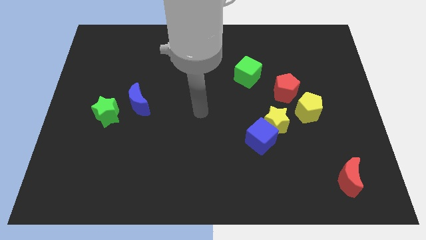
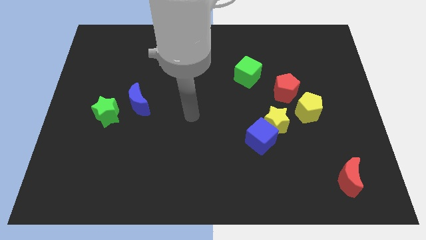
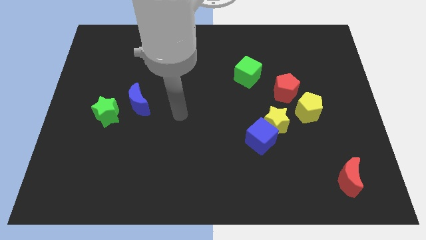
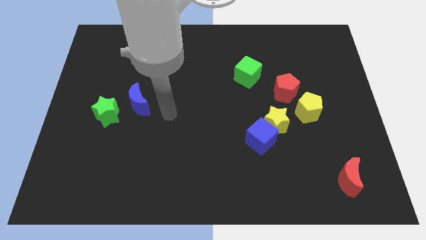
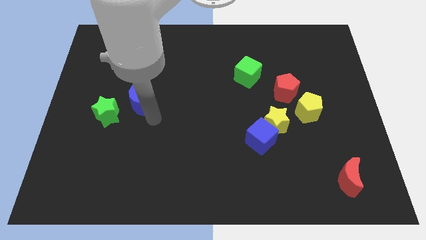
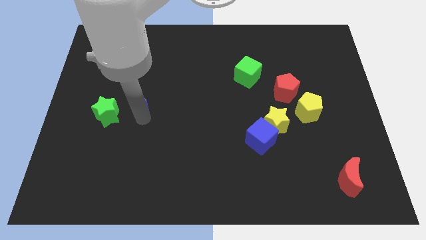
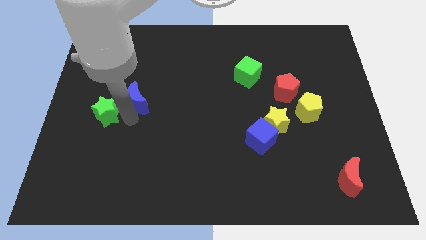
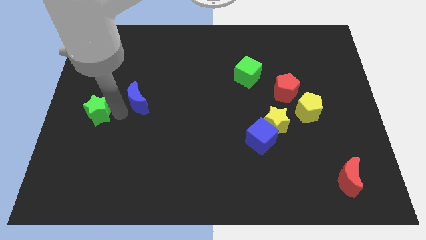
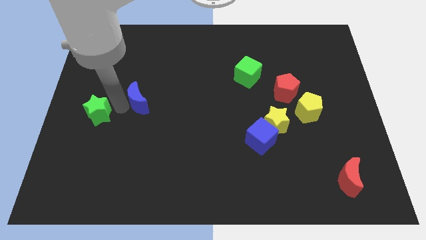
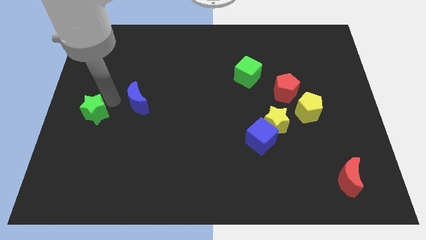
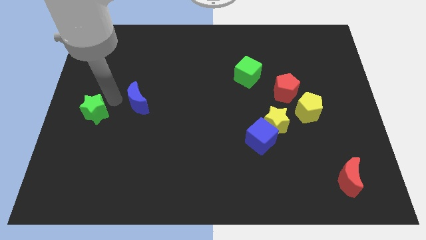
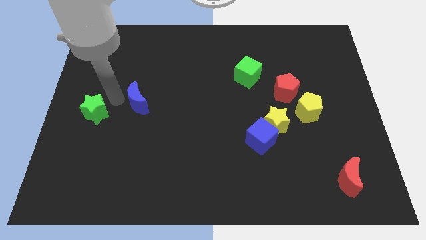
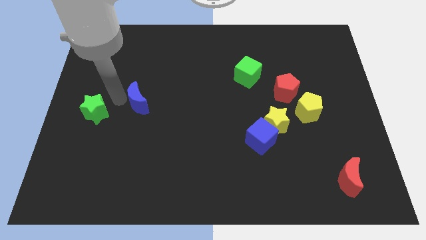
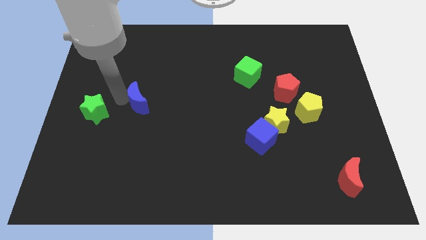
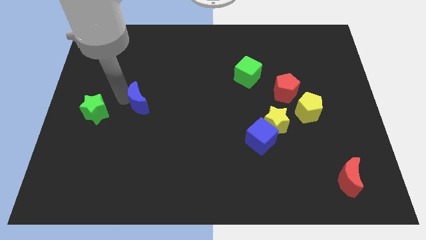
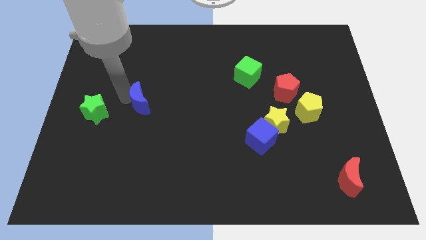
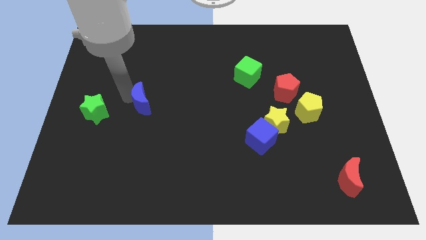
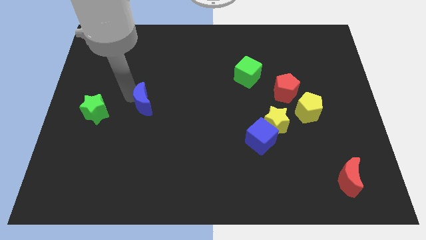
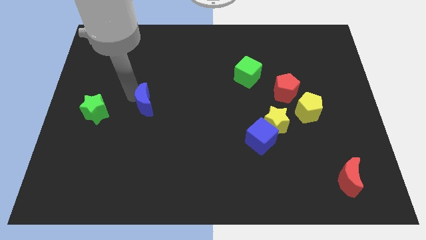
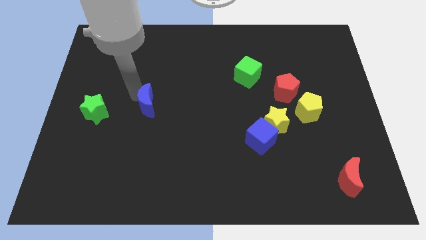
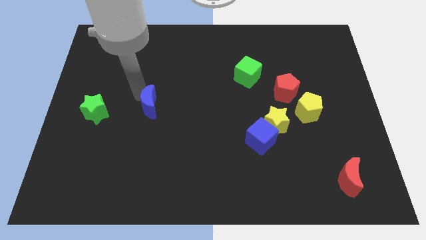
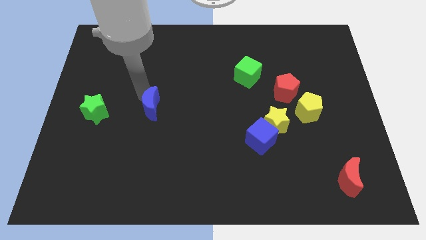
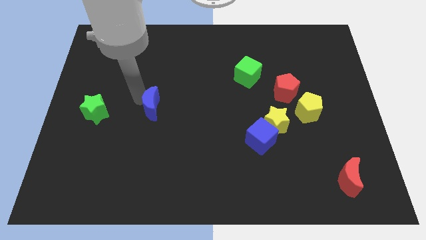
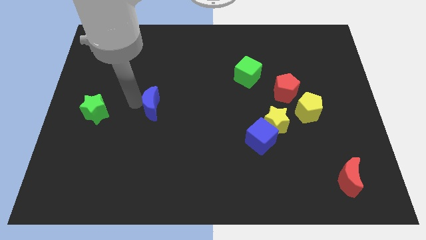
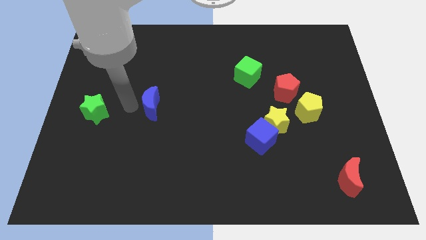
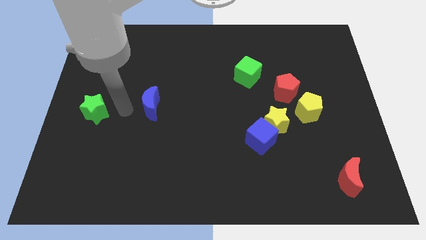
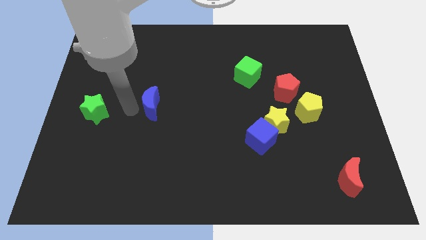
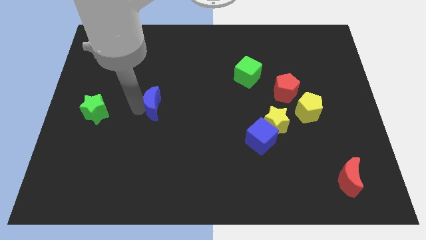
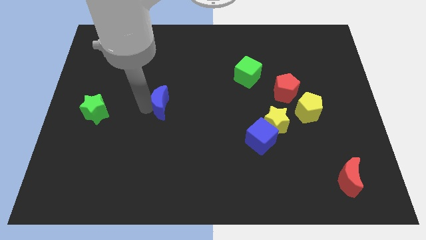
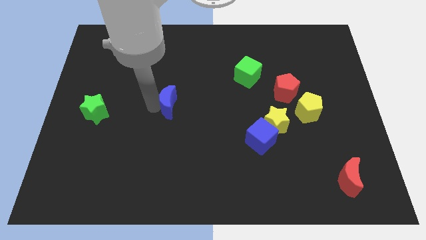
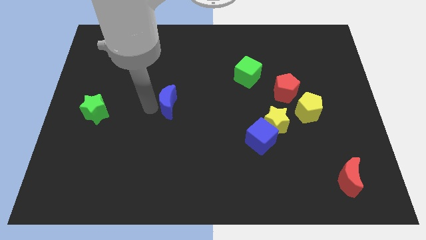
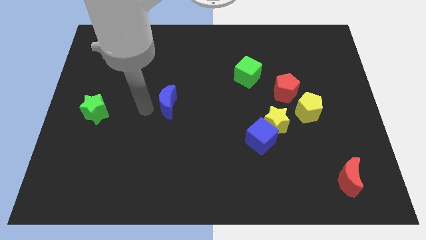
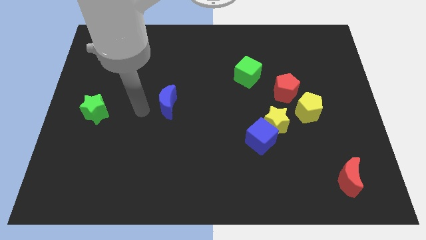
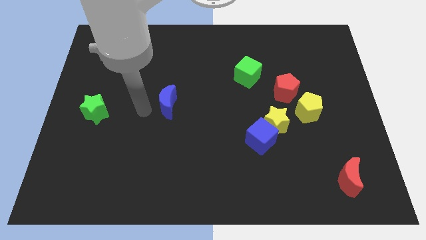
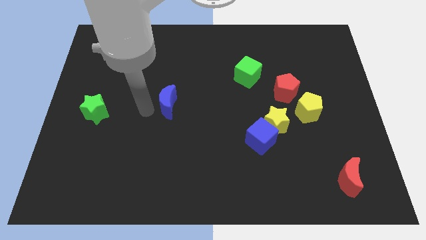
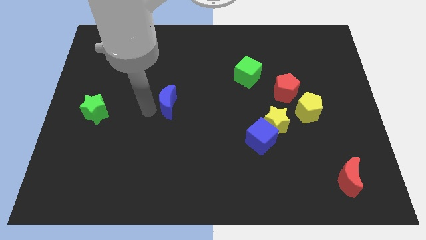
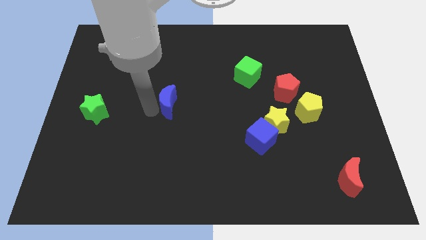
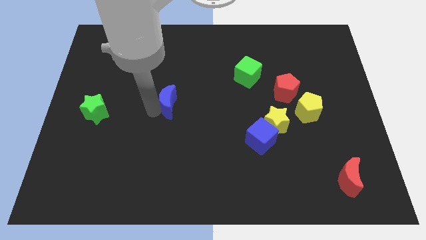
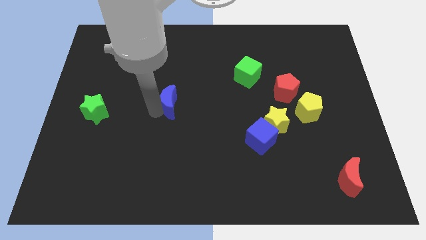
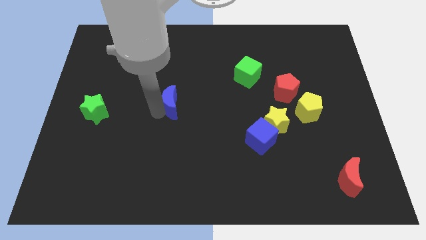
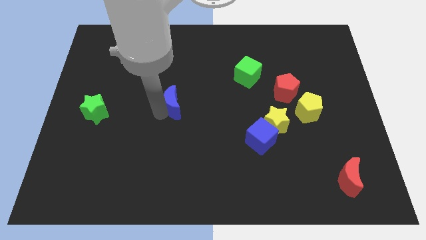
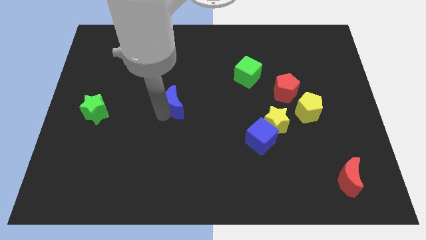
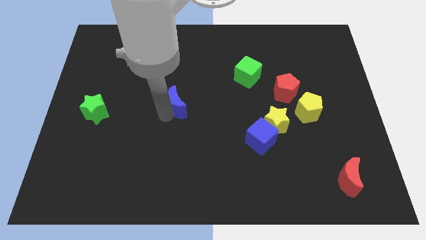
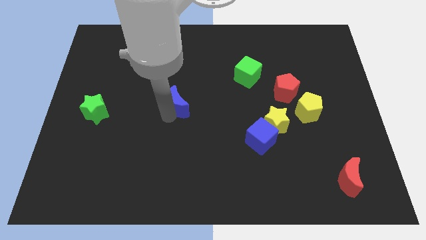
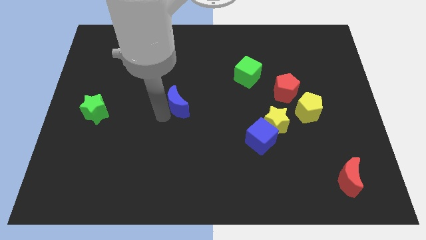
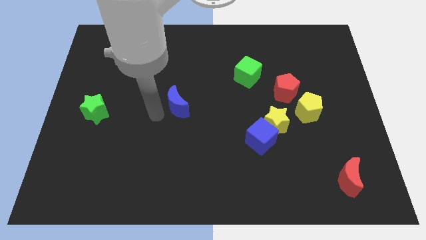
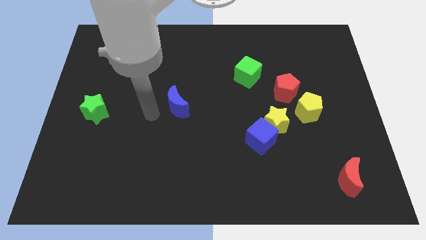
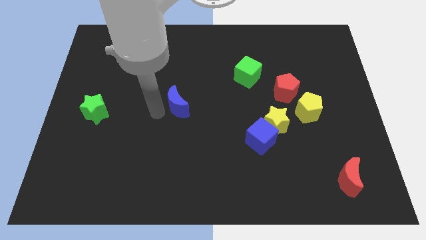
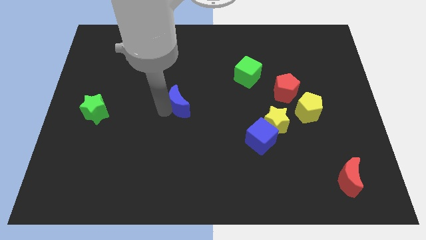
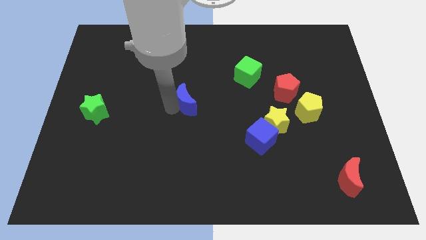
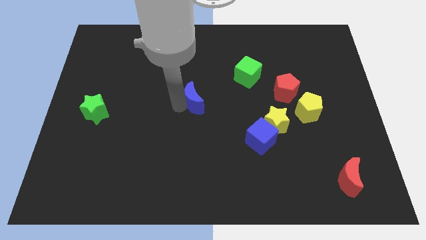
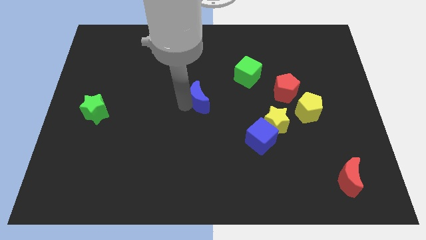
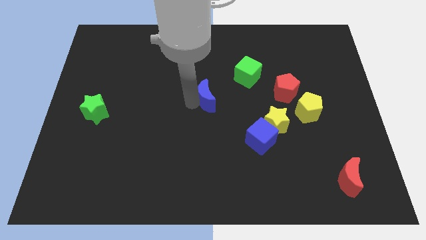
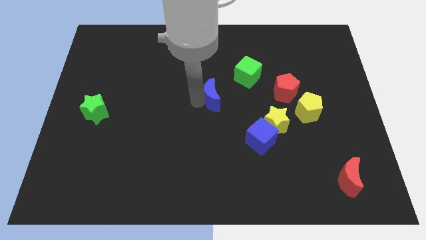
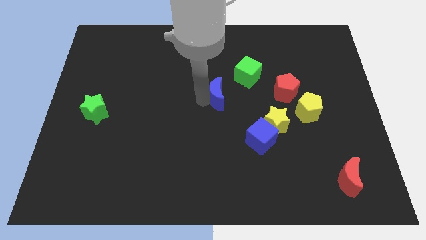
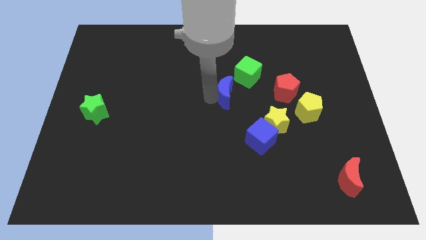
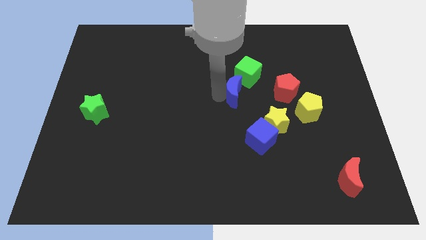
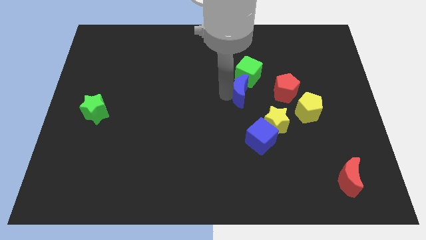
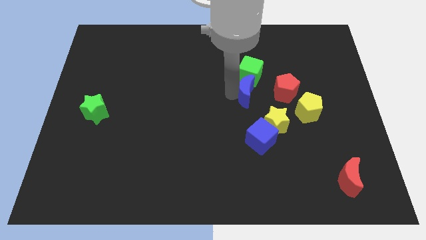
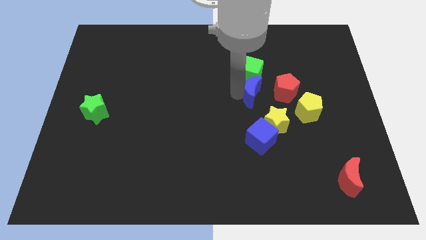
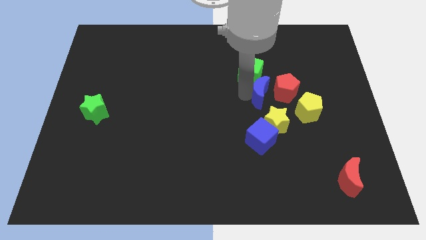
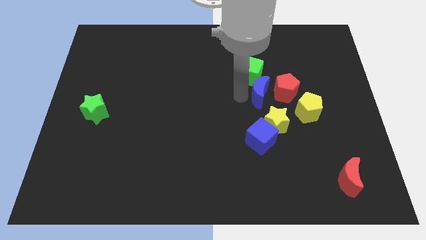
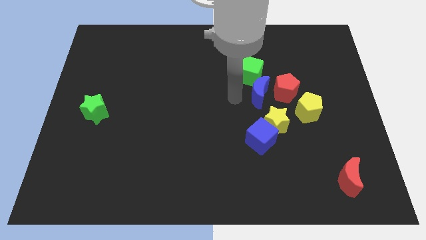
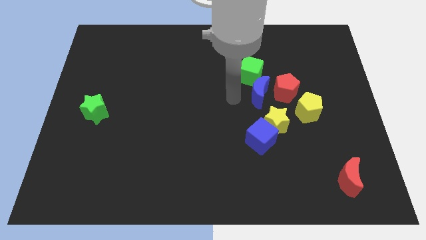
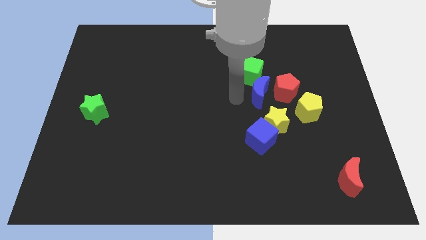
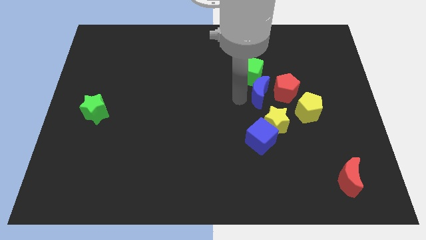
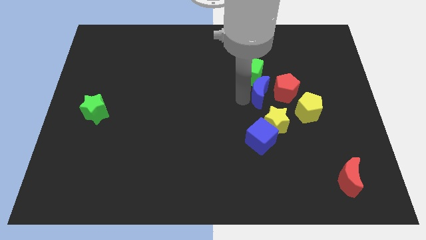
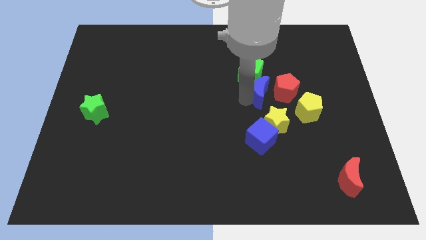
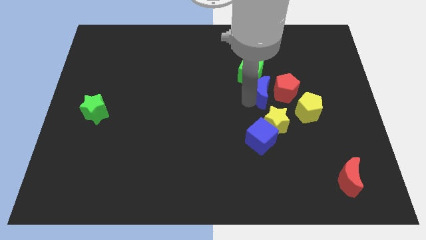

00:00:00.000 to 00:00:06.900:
move the blue moon to the red pentagon

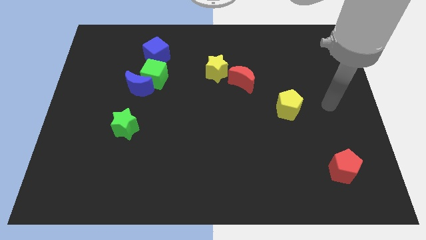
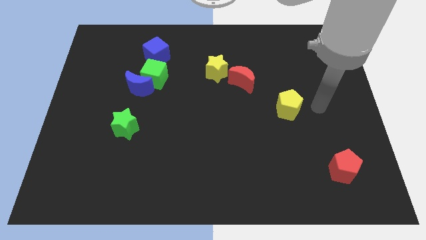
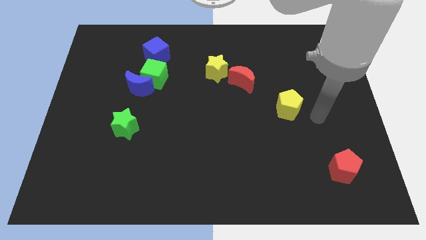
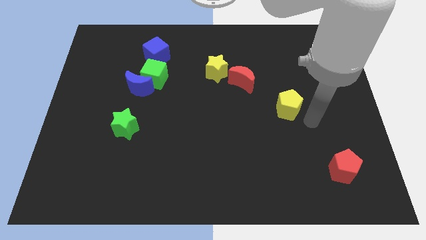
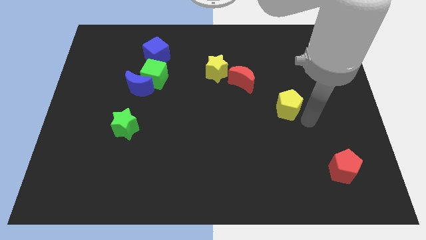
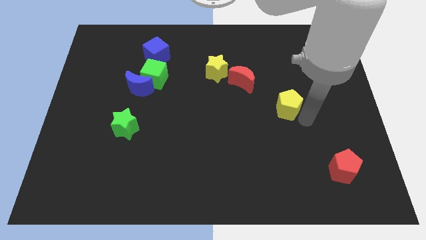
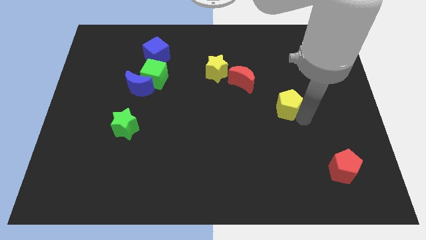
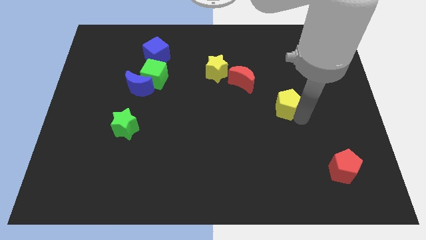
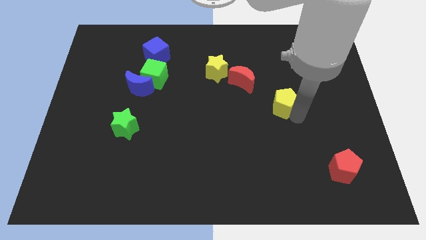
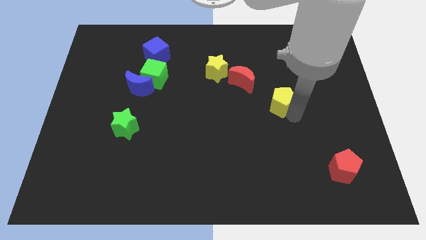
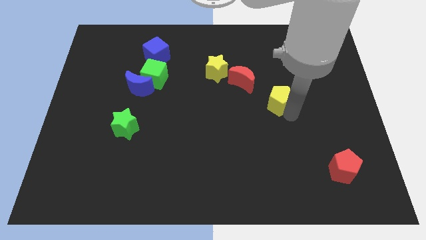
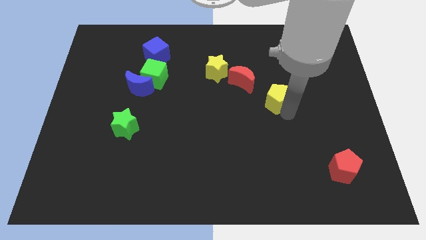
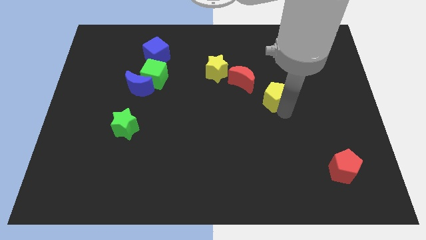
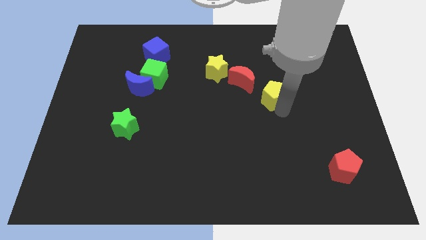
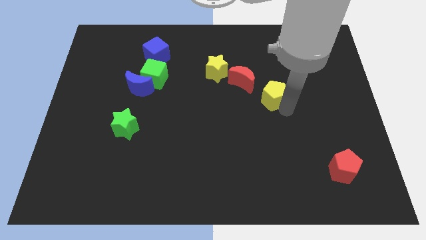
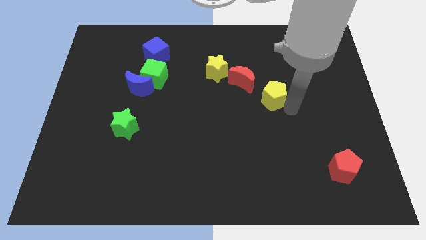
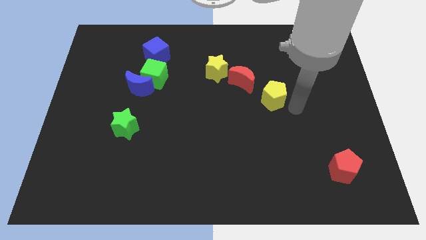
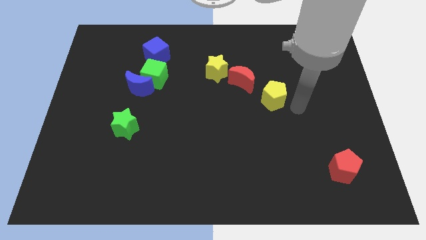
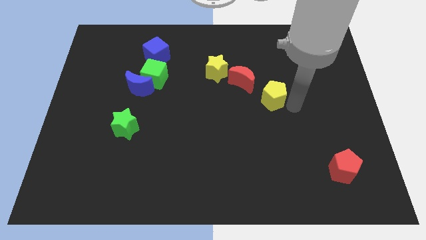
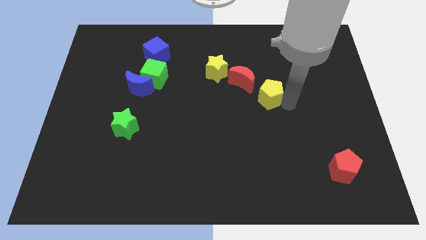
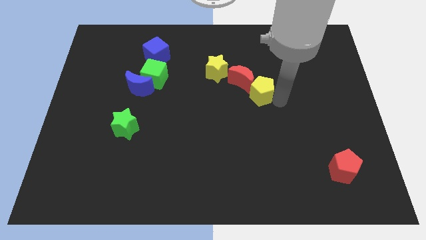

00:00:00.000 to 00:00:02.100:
move the yellow pentagon close to the red moon
